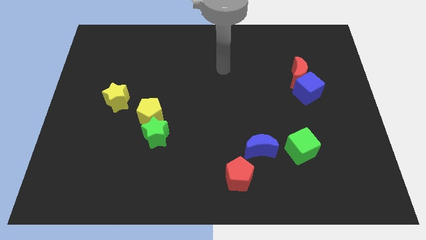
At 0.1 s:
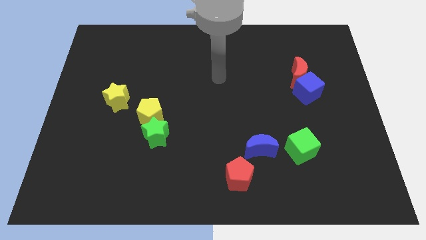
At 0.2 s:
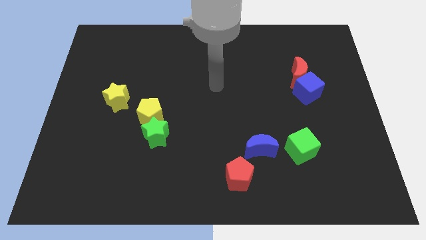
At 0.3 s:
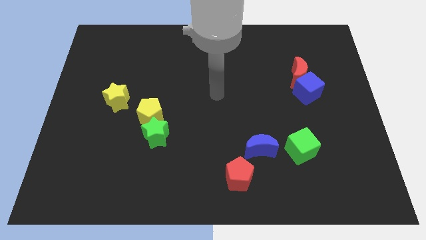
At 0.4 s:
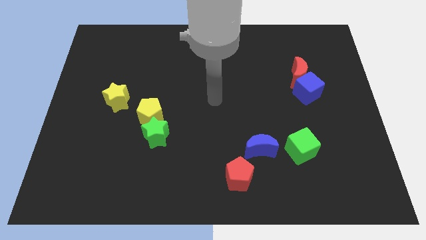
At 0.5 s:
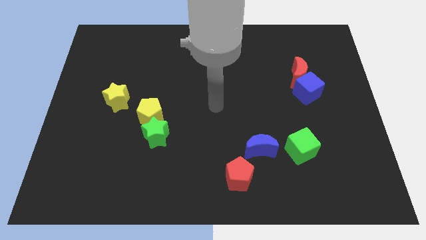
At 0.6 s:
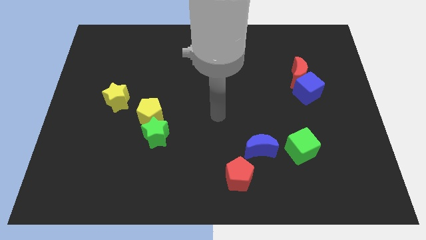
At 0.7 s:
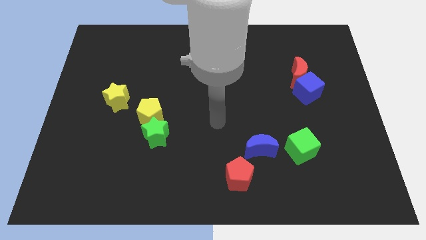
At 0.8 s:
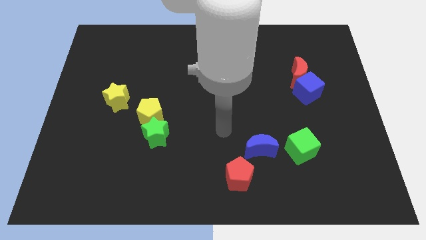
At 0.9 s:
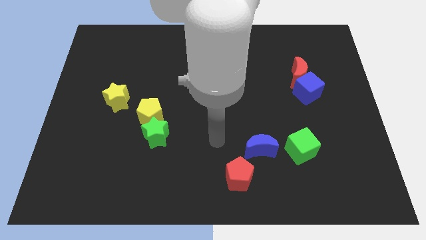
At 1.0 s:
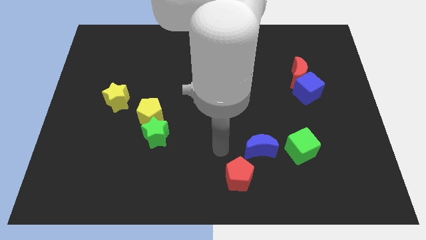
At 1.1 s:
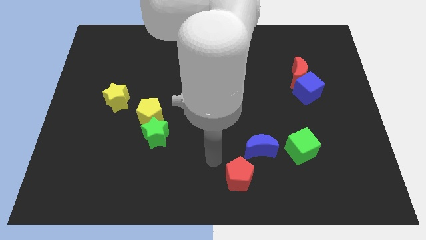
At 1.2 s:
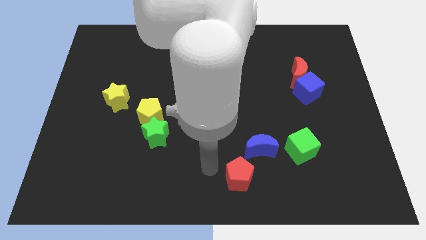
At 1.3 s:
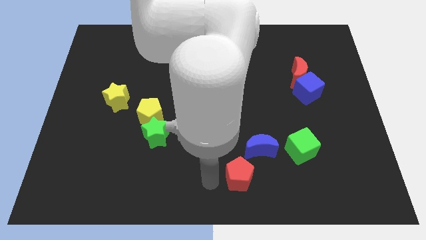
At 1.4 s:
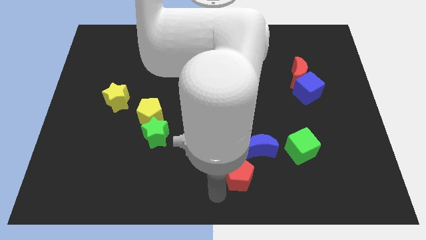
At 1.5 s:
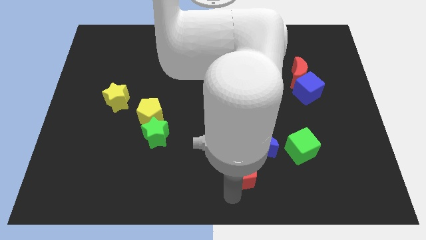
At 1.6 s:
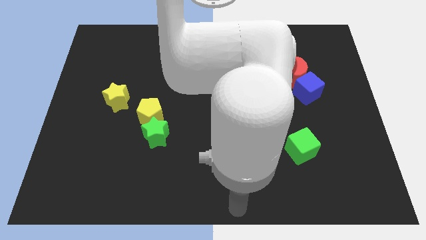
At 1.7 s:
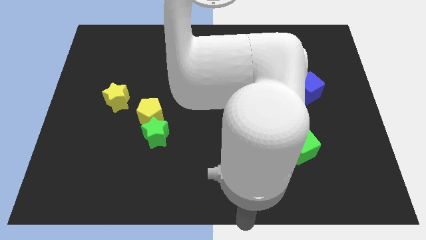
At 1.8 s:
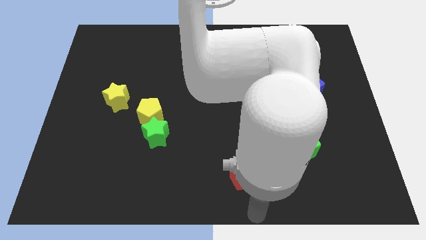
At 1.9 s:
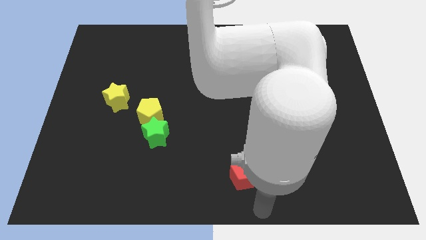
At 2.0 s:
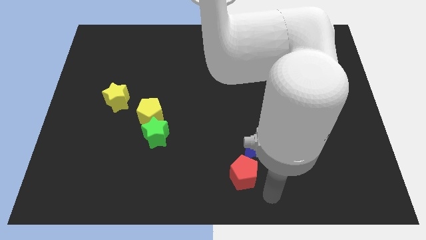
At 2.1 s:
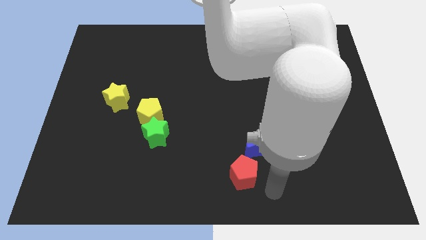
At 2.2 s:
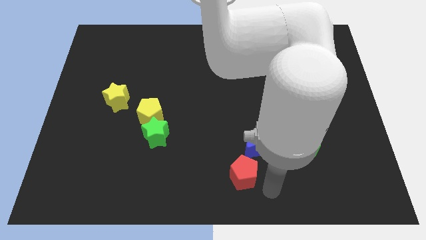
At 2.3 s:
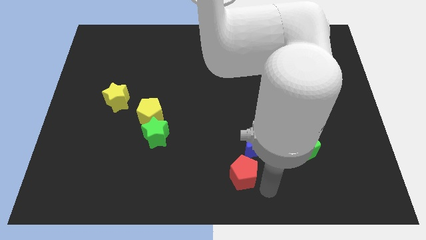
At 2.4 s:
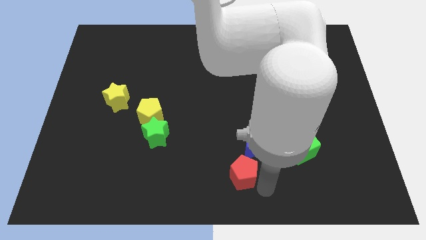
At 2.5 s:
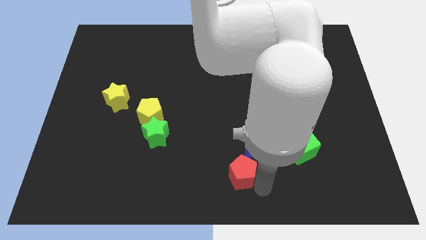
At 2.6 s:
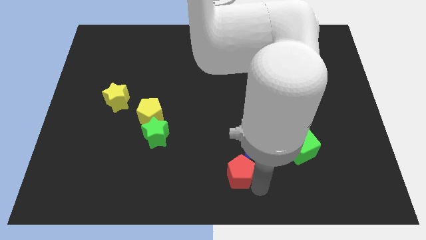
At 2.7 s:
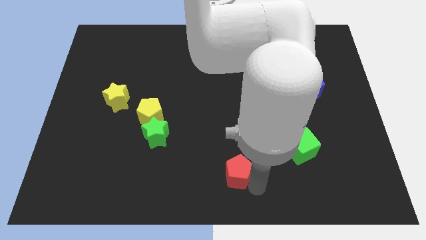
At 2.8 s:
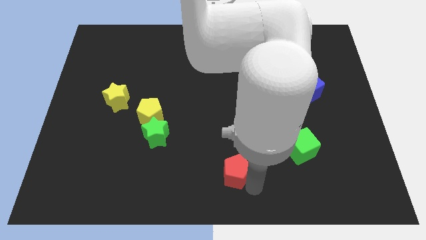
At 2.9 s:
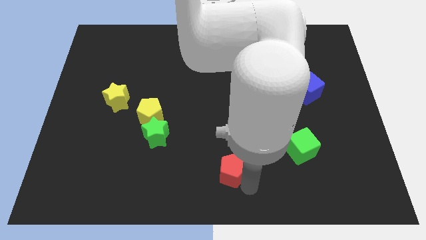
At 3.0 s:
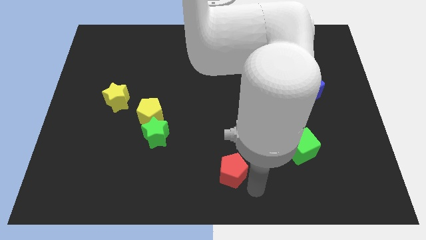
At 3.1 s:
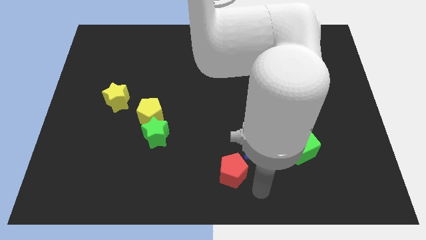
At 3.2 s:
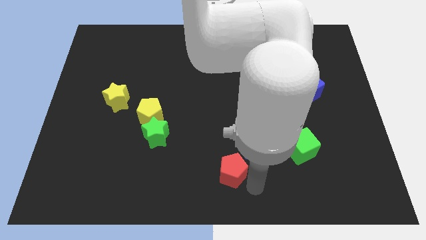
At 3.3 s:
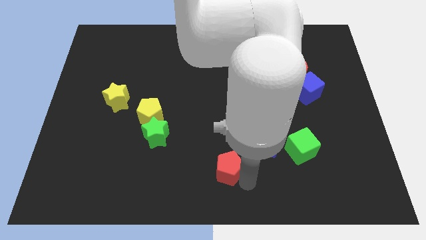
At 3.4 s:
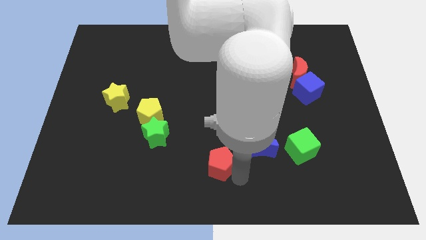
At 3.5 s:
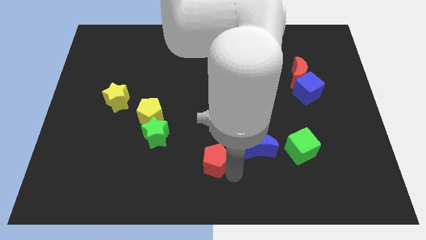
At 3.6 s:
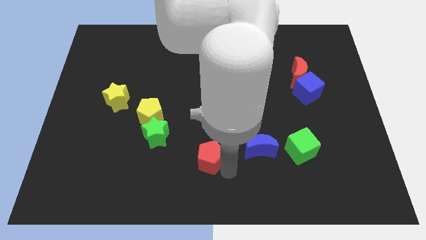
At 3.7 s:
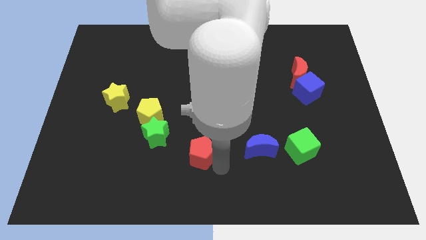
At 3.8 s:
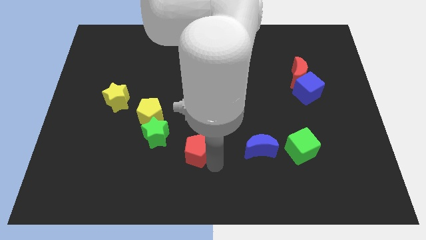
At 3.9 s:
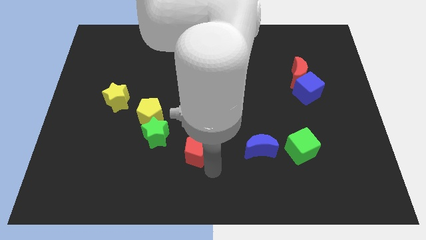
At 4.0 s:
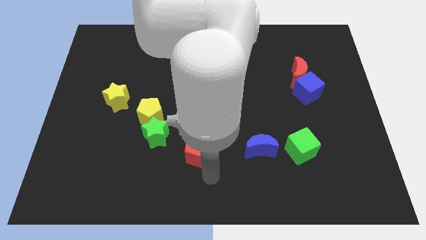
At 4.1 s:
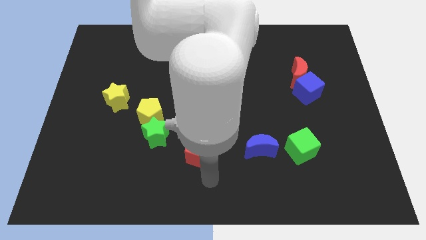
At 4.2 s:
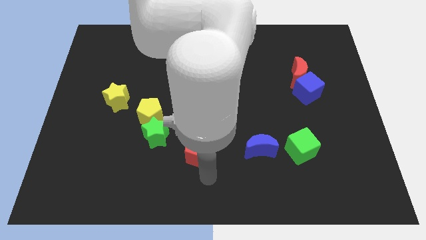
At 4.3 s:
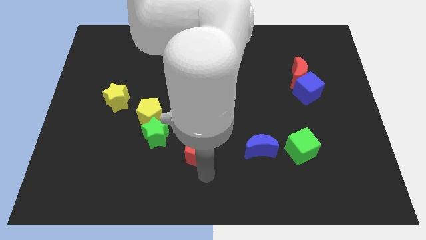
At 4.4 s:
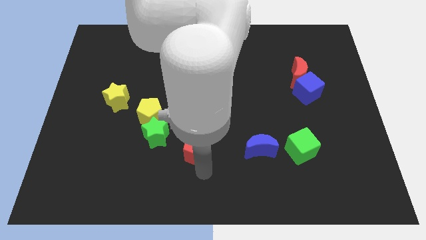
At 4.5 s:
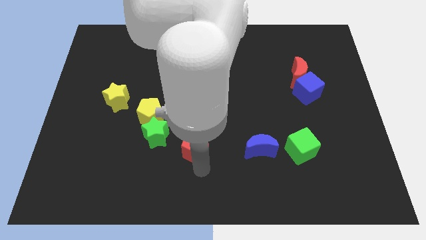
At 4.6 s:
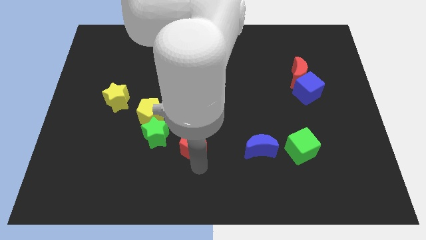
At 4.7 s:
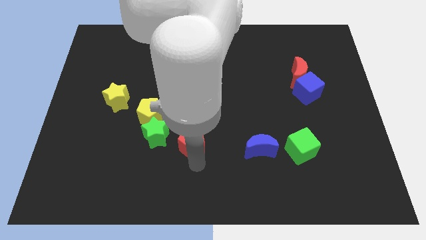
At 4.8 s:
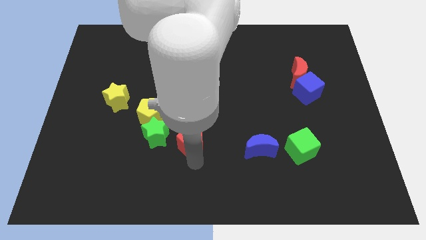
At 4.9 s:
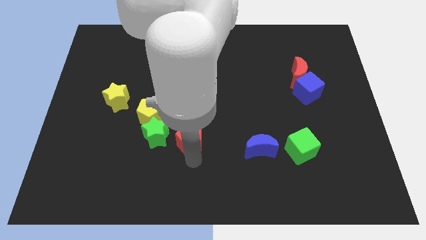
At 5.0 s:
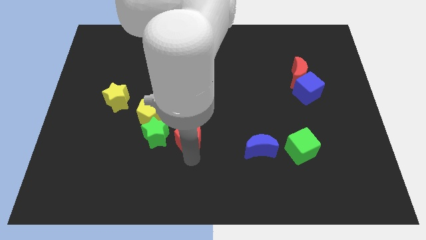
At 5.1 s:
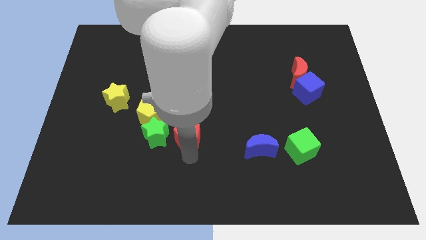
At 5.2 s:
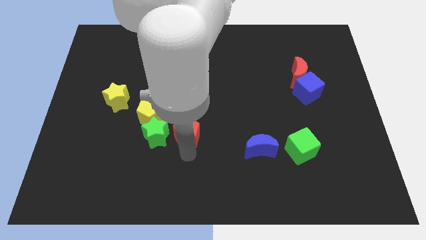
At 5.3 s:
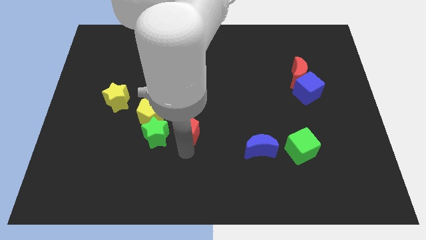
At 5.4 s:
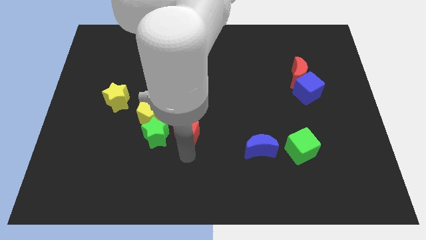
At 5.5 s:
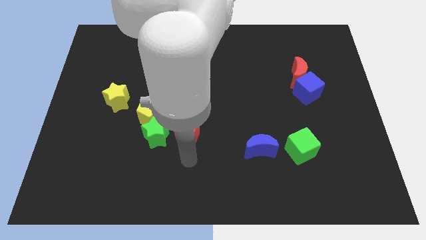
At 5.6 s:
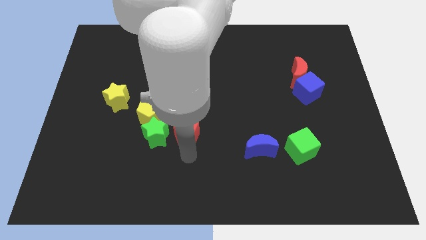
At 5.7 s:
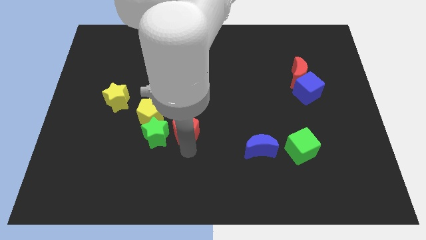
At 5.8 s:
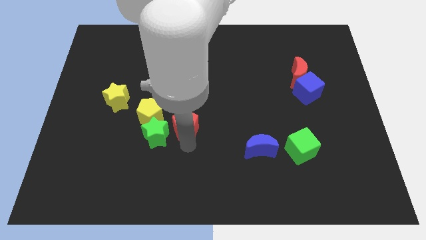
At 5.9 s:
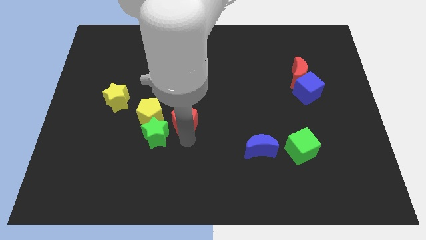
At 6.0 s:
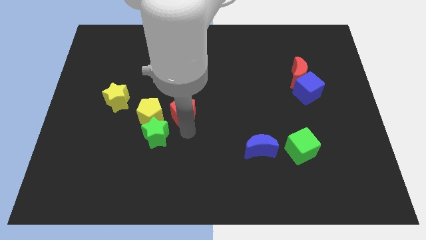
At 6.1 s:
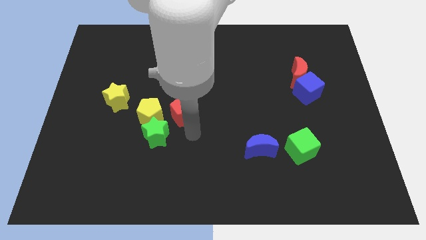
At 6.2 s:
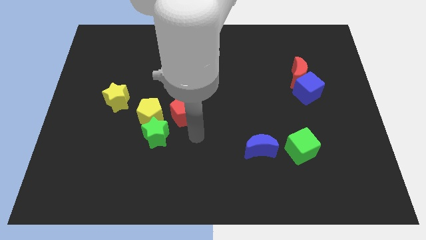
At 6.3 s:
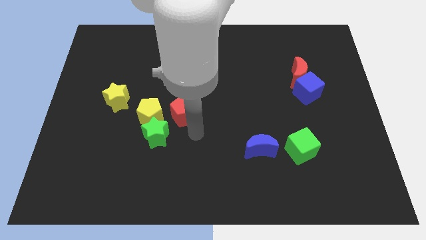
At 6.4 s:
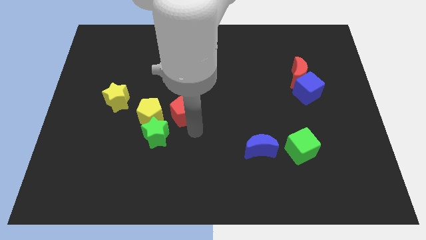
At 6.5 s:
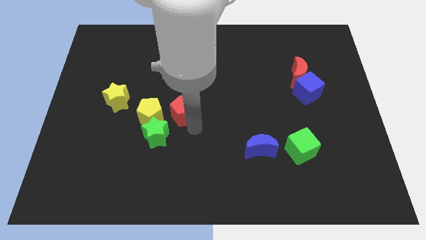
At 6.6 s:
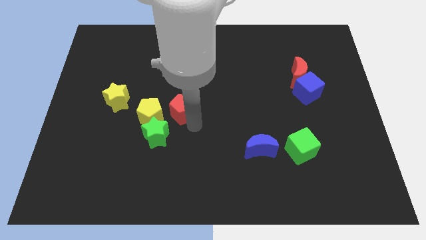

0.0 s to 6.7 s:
slide the red pentagon to the top right of the yellow pentagon
